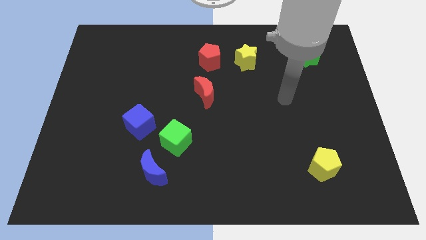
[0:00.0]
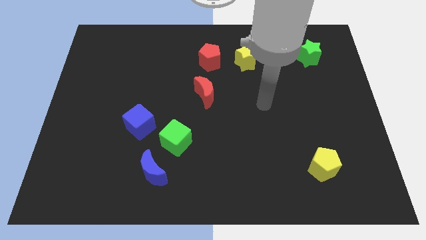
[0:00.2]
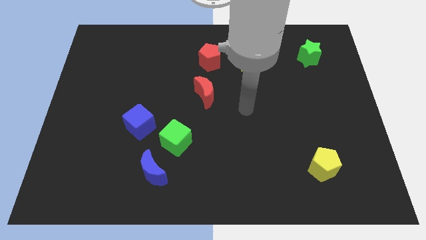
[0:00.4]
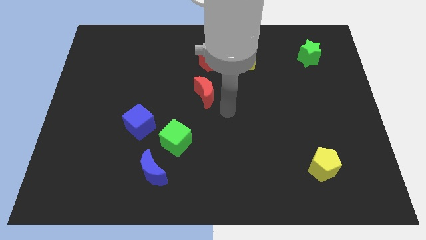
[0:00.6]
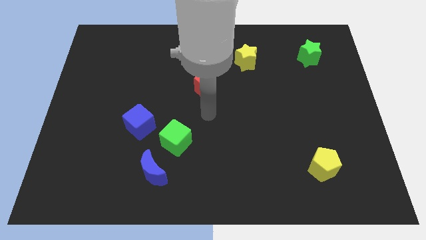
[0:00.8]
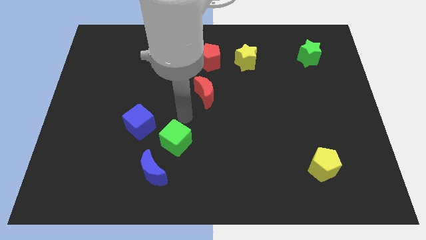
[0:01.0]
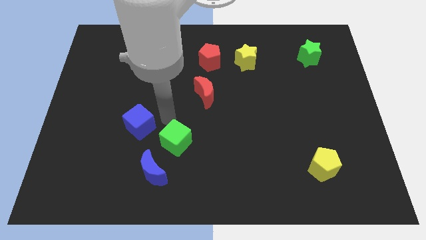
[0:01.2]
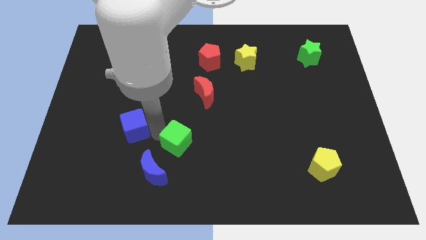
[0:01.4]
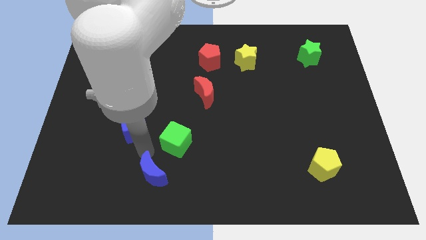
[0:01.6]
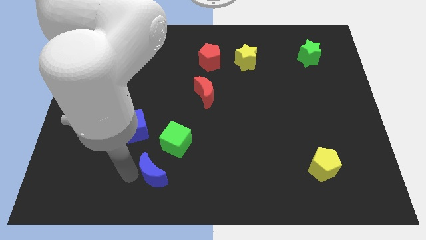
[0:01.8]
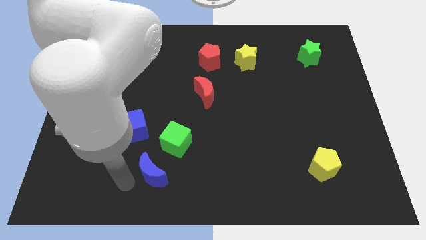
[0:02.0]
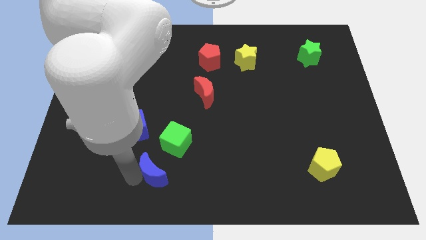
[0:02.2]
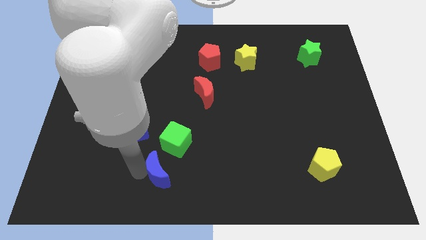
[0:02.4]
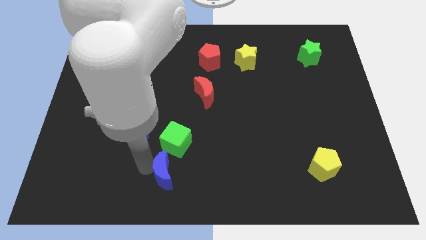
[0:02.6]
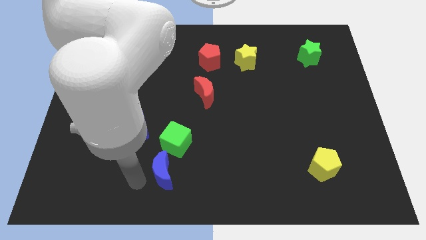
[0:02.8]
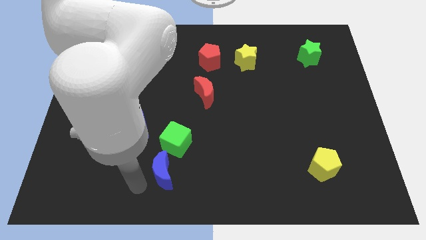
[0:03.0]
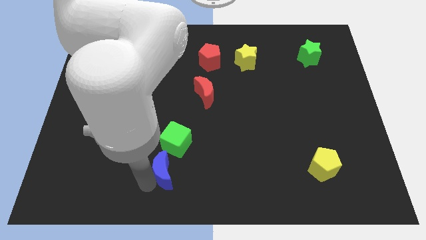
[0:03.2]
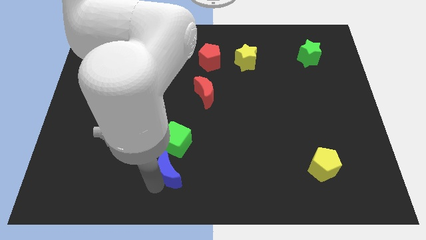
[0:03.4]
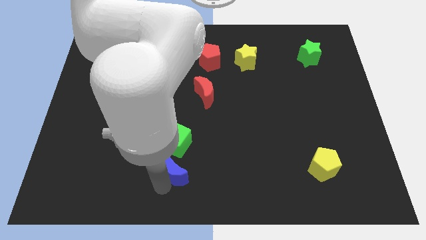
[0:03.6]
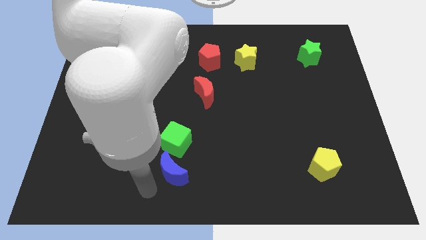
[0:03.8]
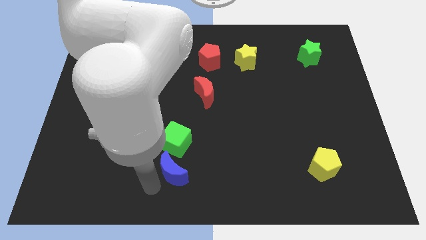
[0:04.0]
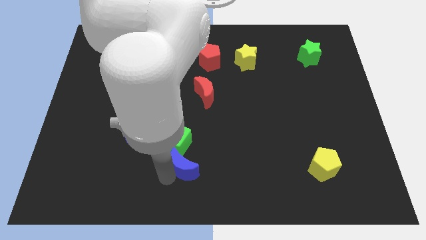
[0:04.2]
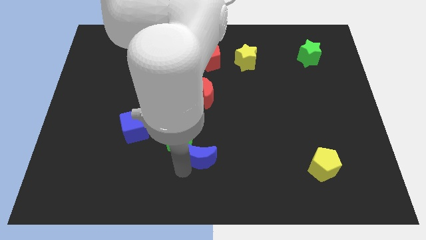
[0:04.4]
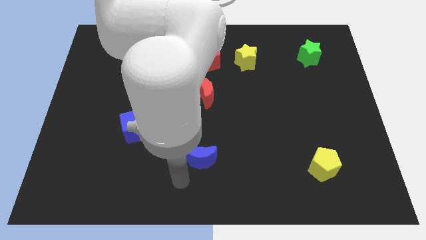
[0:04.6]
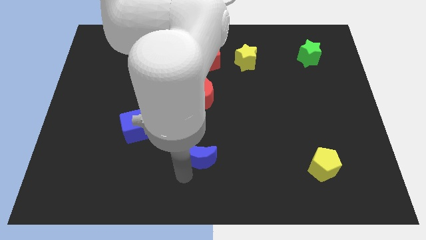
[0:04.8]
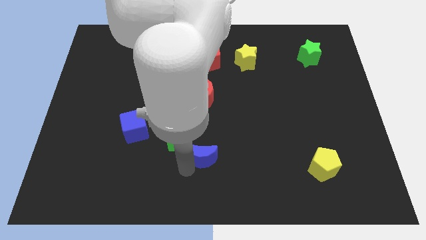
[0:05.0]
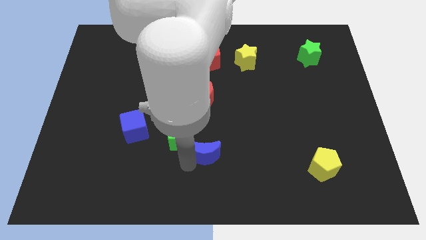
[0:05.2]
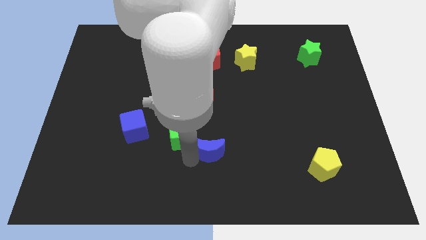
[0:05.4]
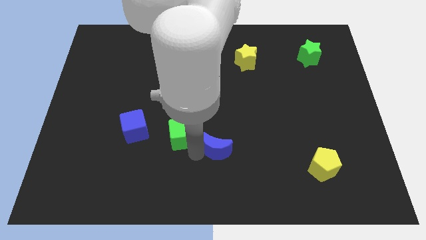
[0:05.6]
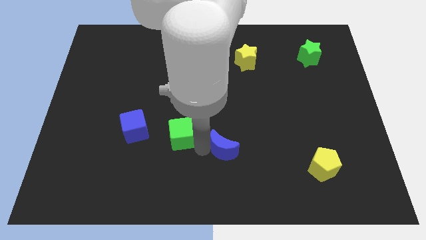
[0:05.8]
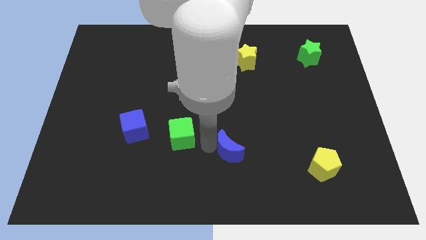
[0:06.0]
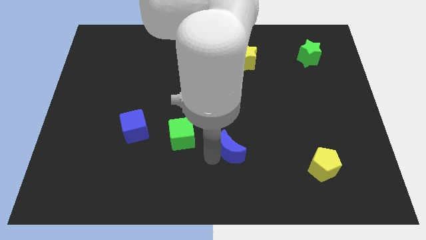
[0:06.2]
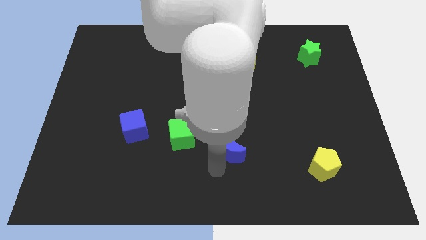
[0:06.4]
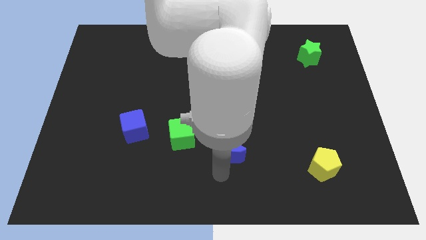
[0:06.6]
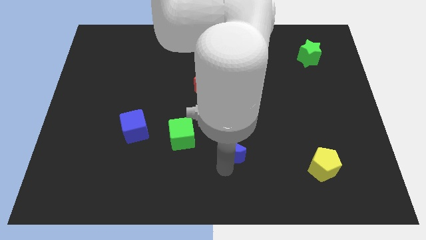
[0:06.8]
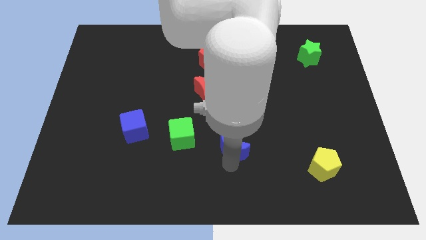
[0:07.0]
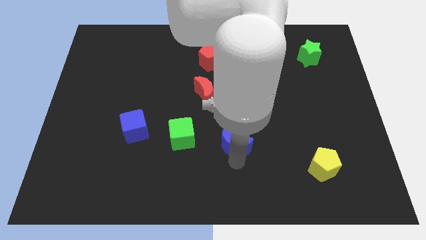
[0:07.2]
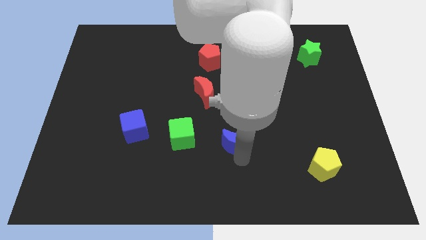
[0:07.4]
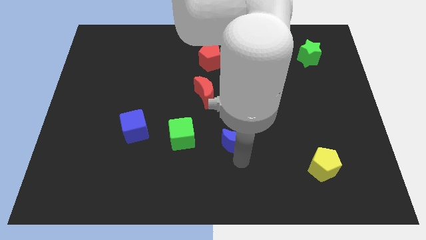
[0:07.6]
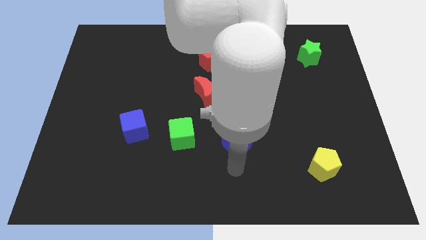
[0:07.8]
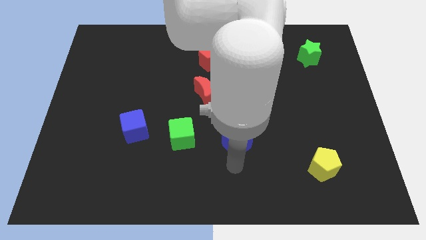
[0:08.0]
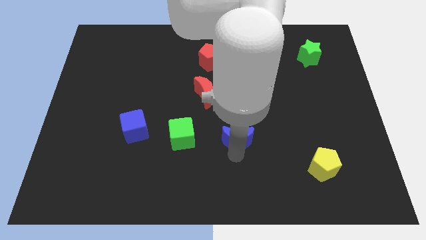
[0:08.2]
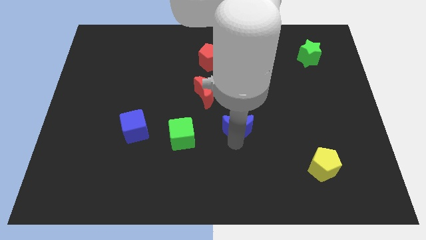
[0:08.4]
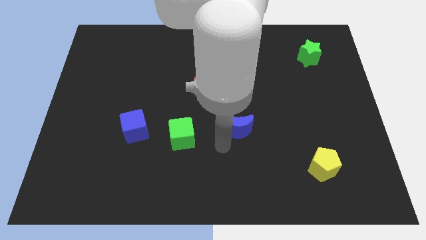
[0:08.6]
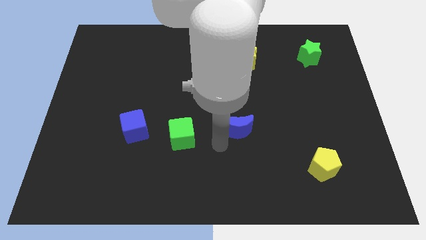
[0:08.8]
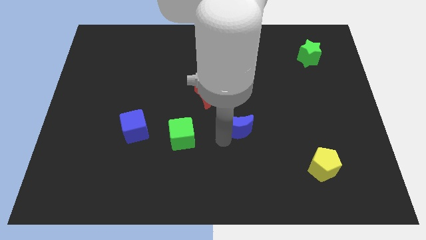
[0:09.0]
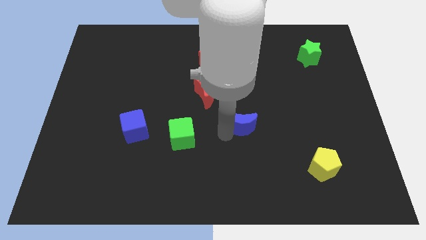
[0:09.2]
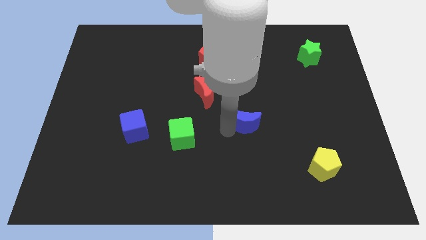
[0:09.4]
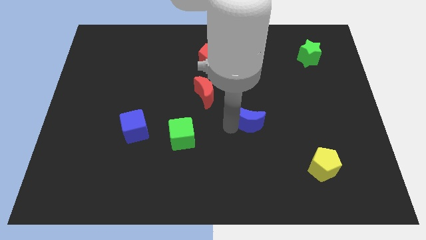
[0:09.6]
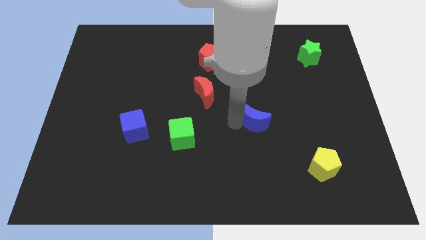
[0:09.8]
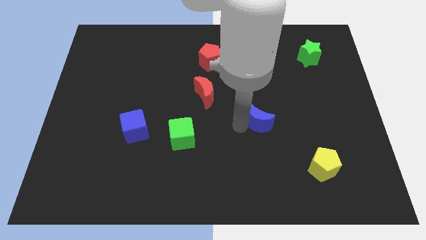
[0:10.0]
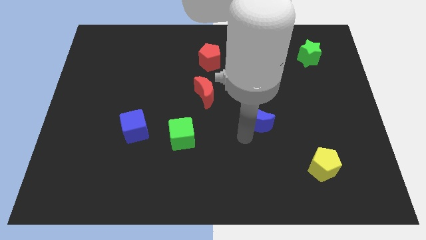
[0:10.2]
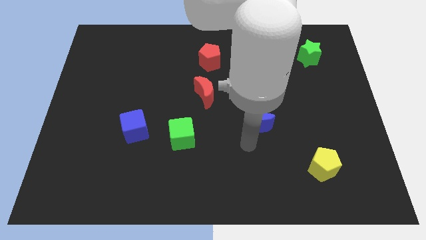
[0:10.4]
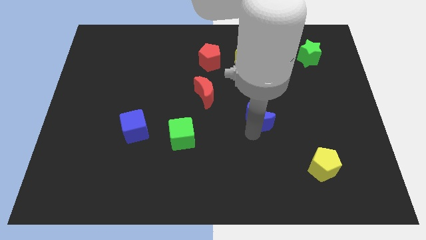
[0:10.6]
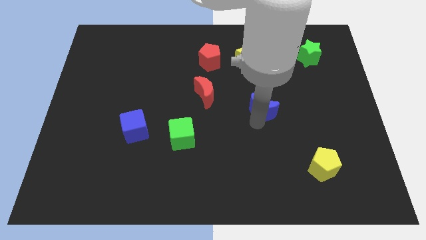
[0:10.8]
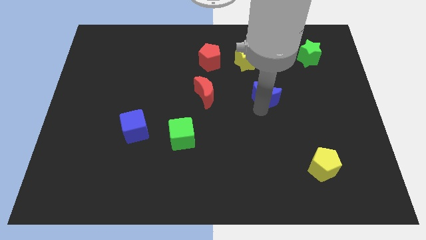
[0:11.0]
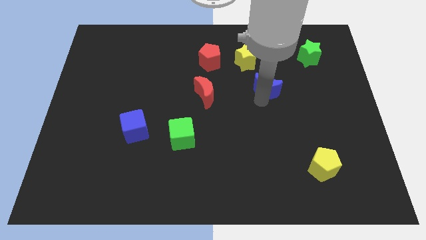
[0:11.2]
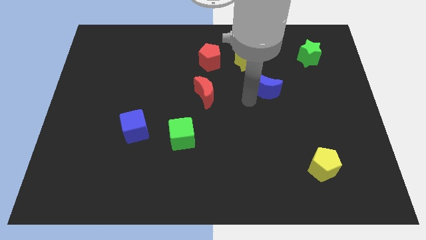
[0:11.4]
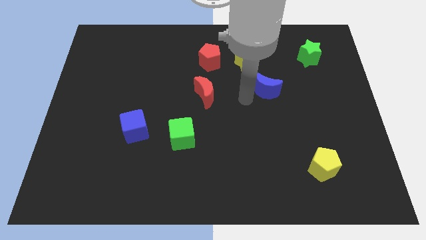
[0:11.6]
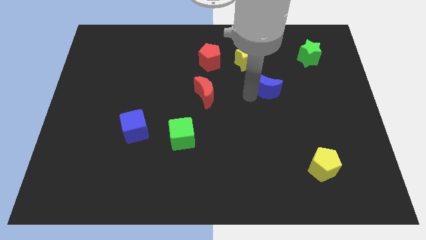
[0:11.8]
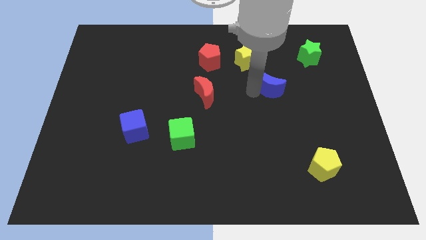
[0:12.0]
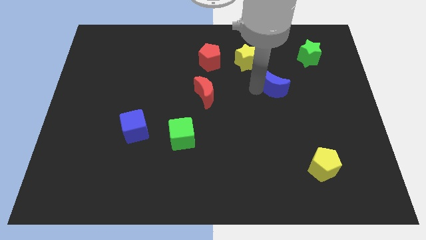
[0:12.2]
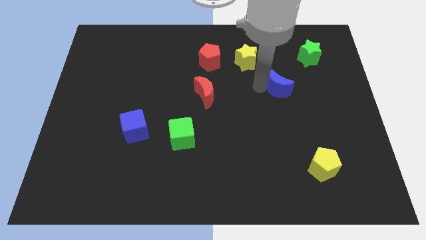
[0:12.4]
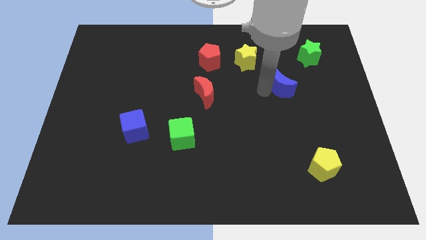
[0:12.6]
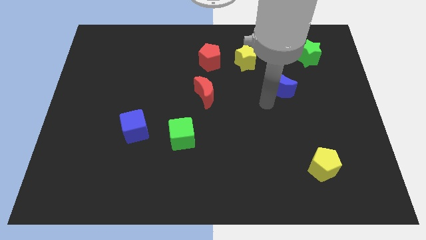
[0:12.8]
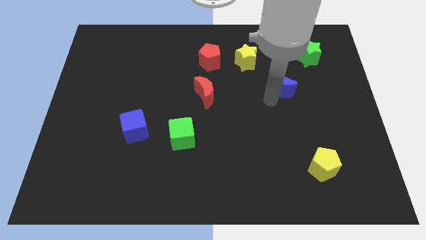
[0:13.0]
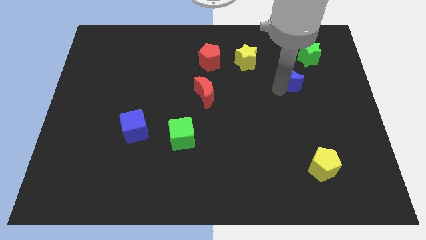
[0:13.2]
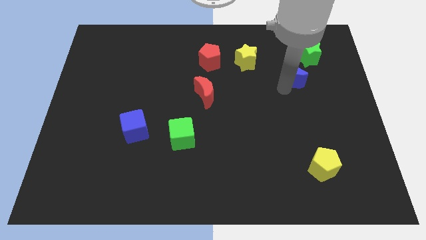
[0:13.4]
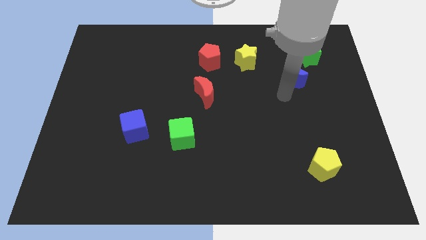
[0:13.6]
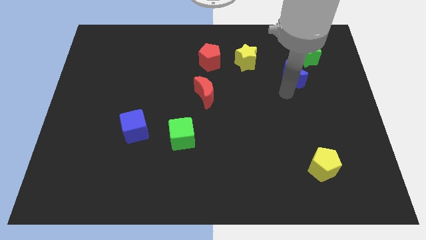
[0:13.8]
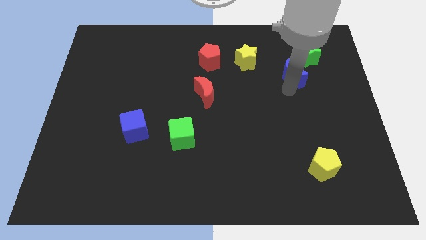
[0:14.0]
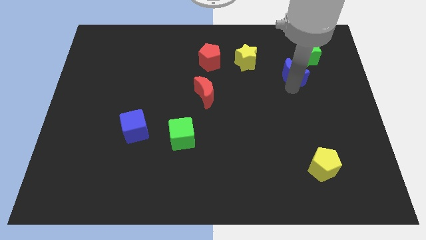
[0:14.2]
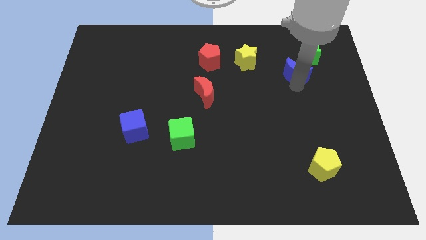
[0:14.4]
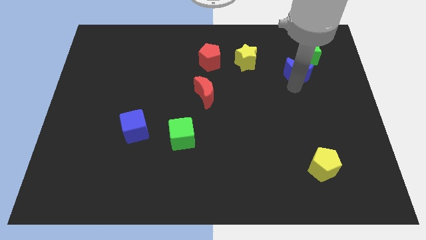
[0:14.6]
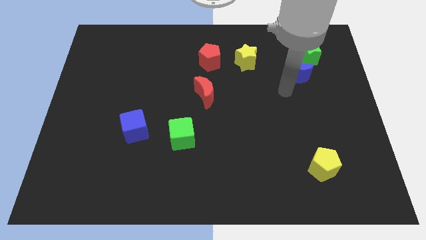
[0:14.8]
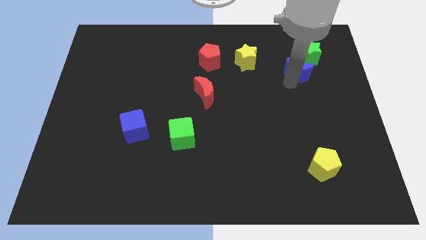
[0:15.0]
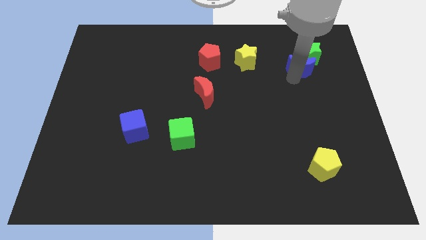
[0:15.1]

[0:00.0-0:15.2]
move the blue moon to the green star
